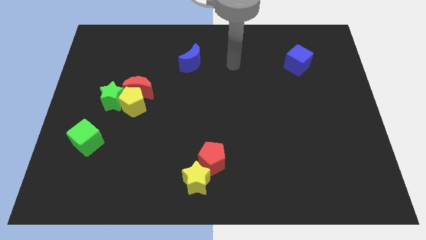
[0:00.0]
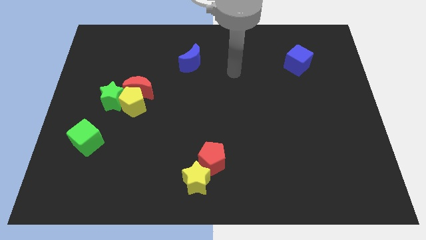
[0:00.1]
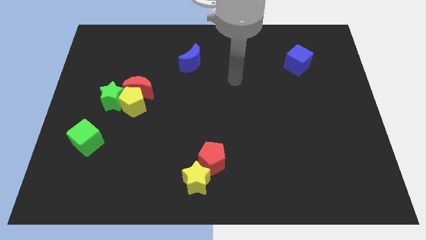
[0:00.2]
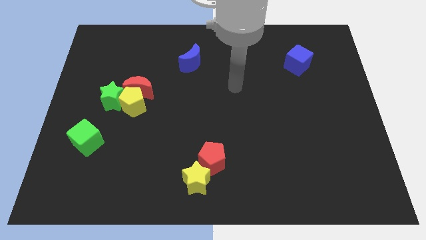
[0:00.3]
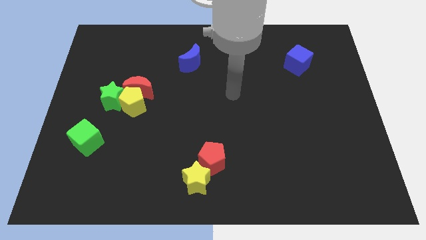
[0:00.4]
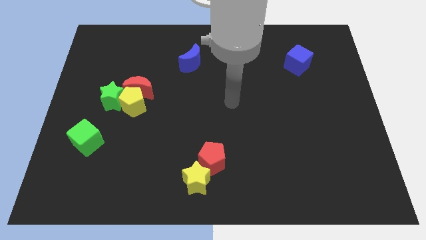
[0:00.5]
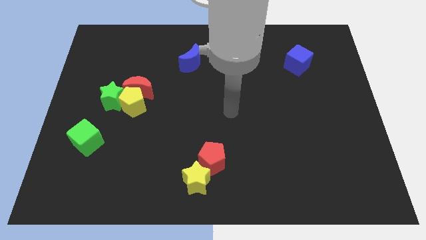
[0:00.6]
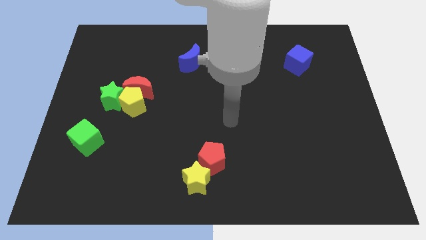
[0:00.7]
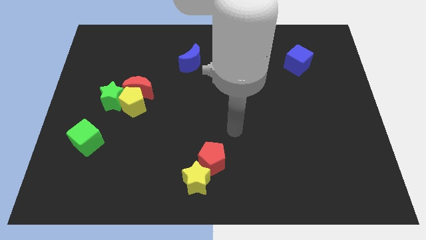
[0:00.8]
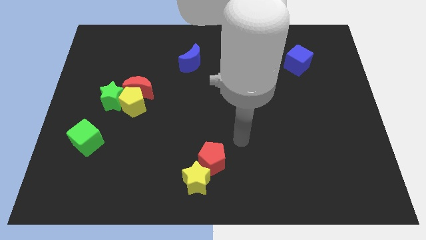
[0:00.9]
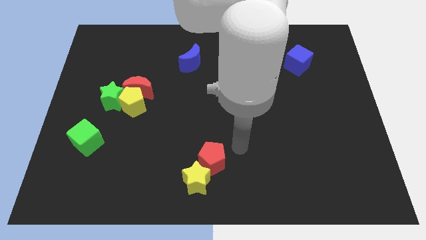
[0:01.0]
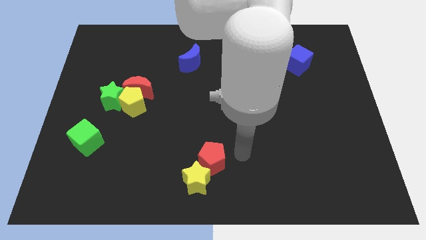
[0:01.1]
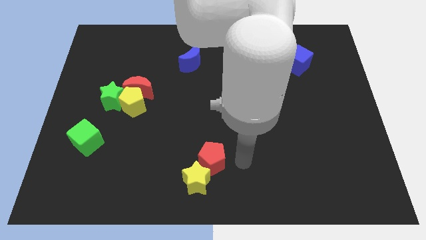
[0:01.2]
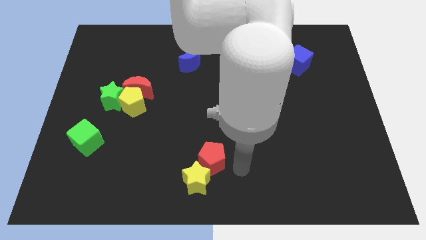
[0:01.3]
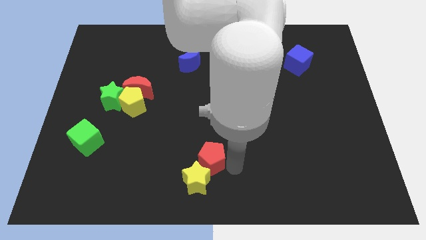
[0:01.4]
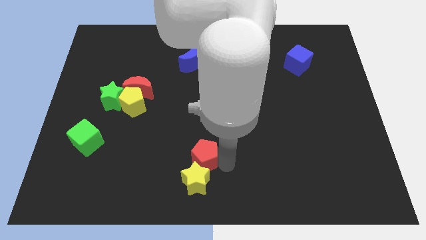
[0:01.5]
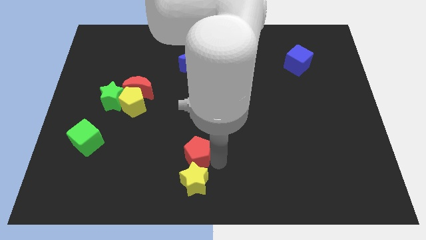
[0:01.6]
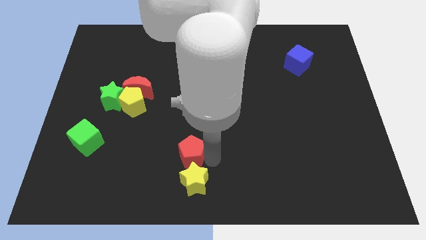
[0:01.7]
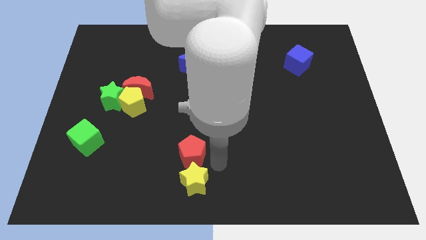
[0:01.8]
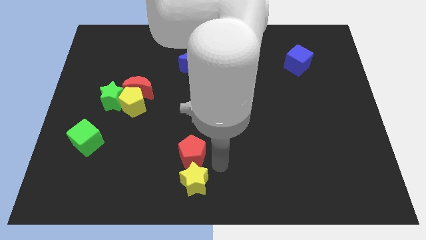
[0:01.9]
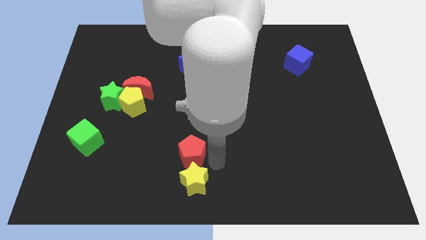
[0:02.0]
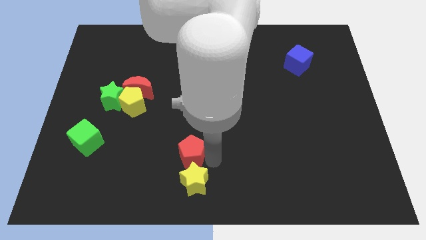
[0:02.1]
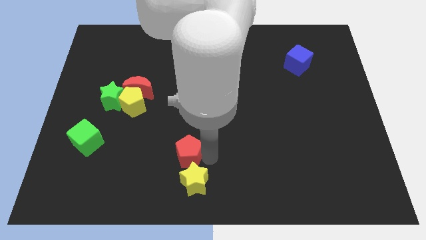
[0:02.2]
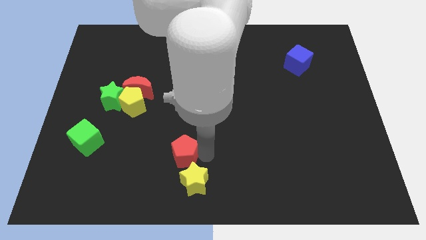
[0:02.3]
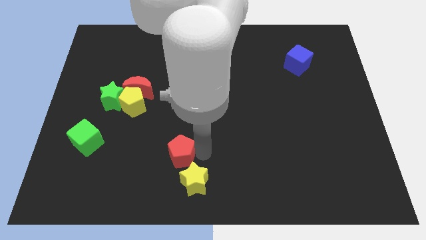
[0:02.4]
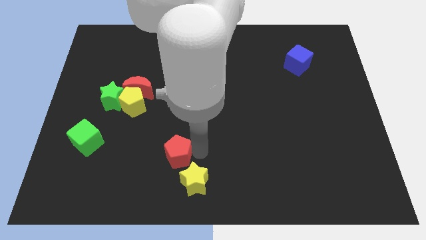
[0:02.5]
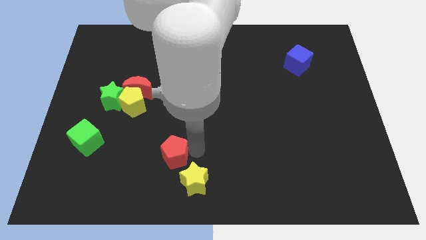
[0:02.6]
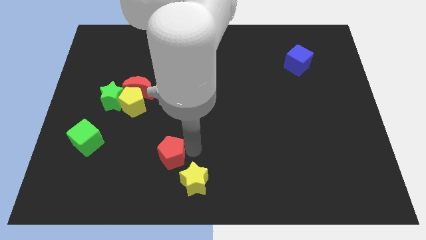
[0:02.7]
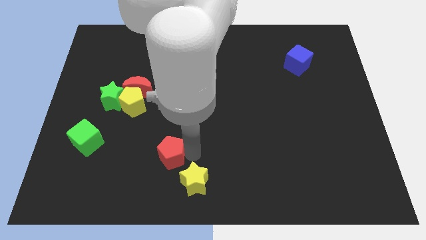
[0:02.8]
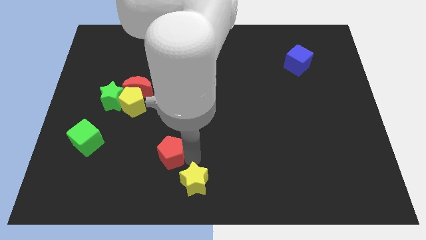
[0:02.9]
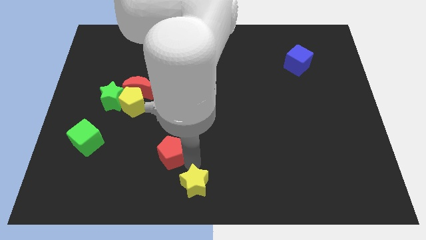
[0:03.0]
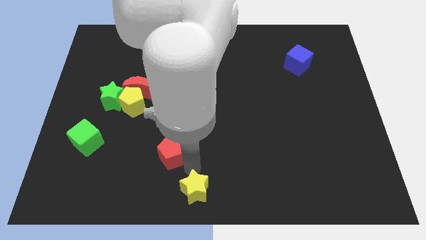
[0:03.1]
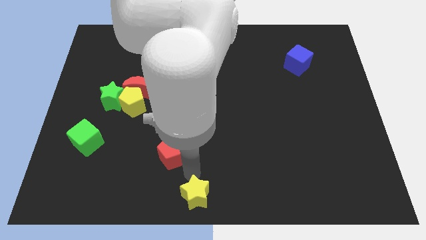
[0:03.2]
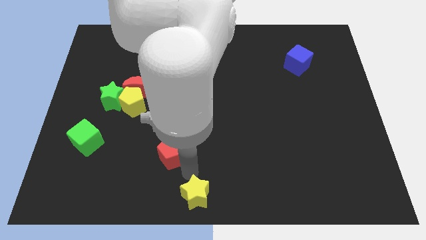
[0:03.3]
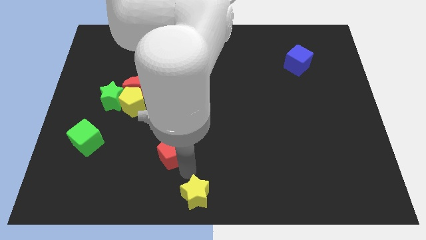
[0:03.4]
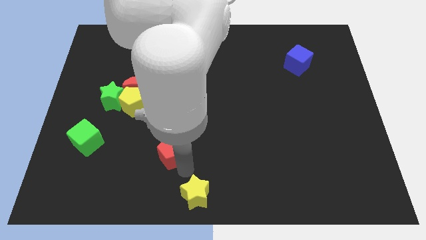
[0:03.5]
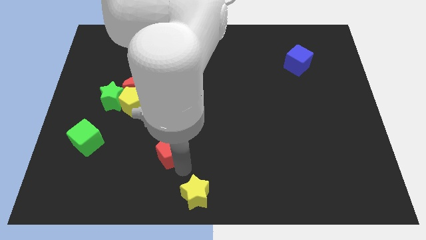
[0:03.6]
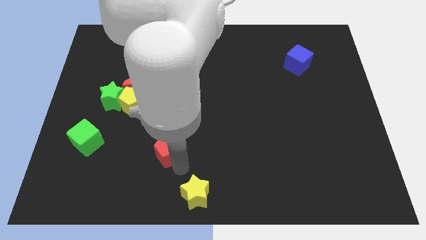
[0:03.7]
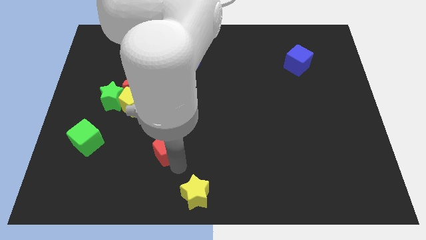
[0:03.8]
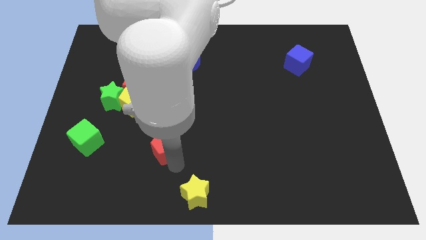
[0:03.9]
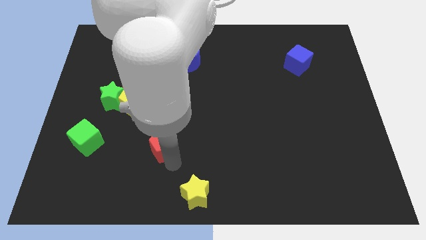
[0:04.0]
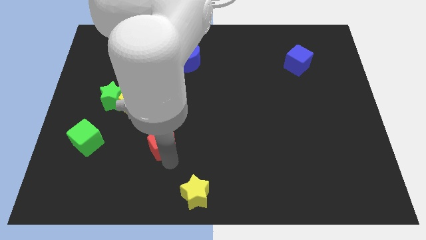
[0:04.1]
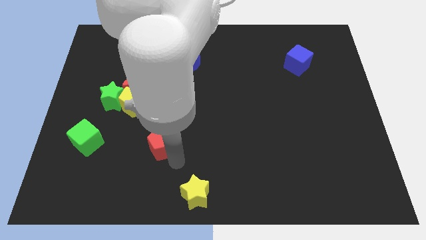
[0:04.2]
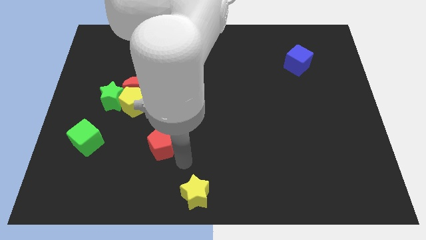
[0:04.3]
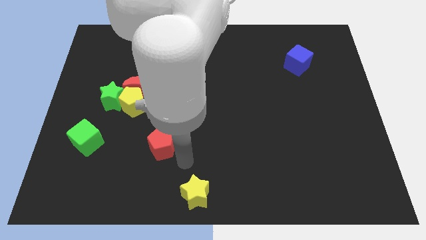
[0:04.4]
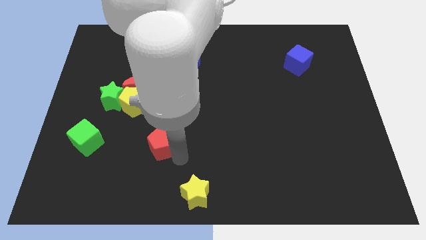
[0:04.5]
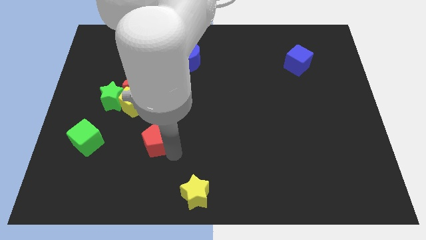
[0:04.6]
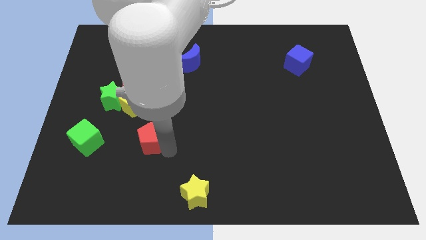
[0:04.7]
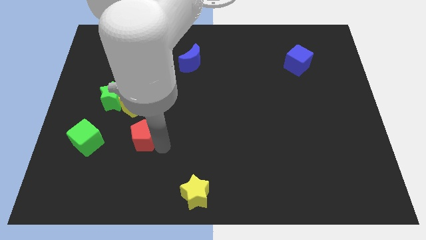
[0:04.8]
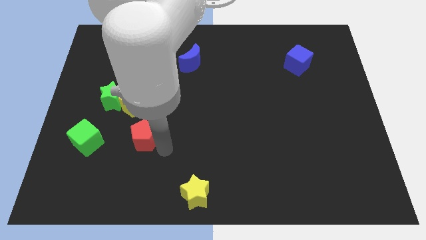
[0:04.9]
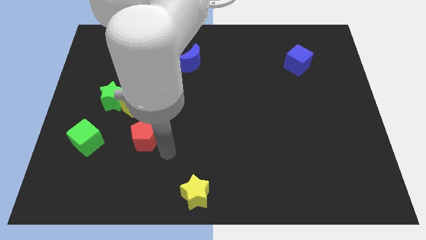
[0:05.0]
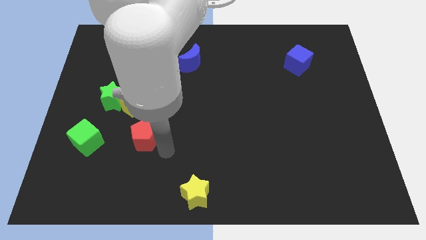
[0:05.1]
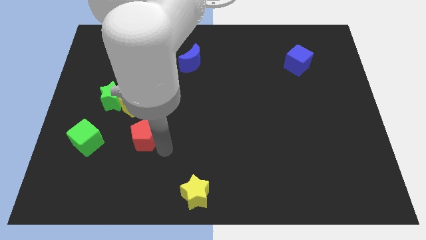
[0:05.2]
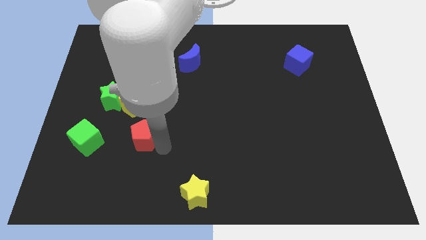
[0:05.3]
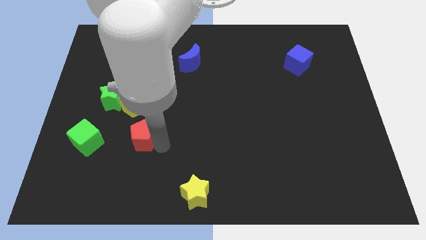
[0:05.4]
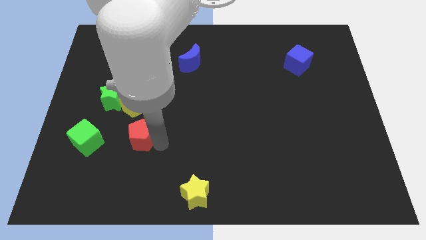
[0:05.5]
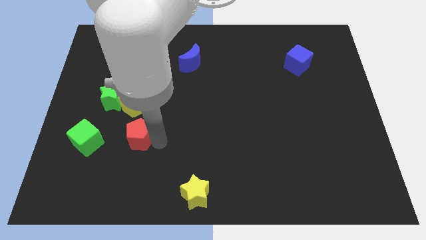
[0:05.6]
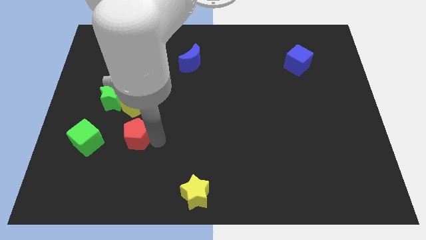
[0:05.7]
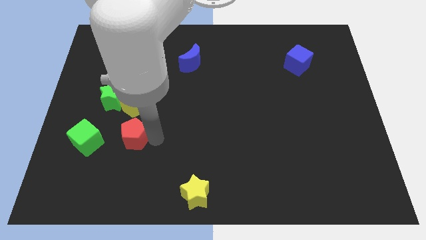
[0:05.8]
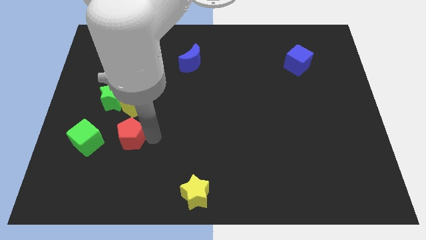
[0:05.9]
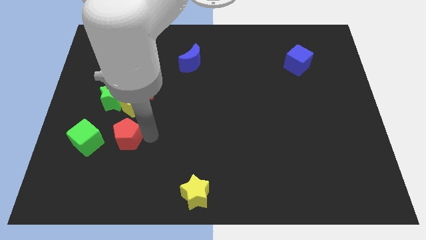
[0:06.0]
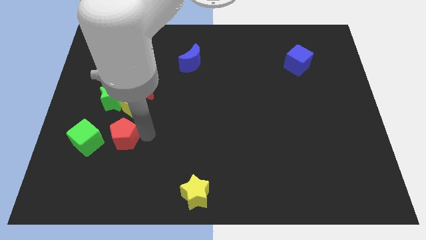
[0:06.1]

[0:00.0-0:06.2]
move the red pentagon diagonally up and to the right of the green cube

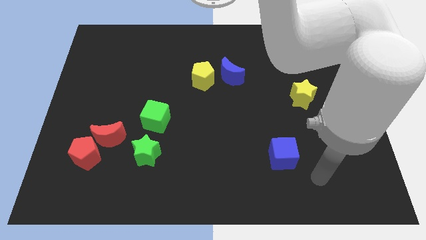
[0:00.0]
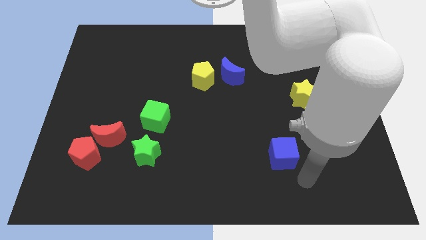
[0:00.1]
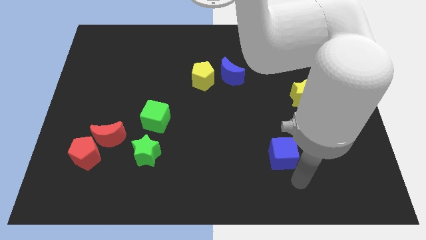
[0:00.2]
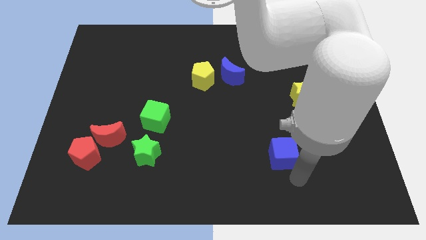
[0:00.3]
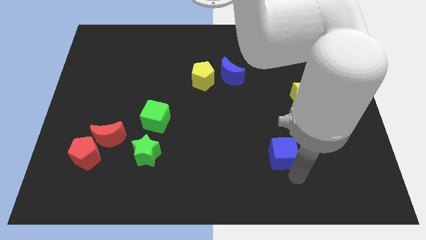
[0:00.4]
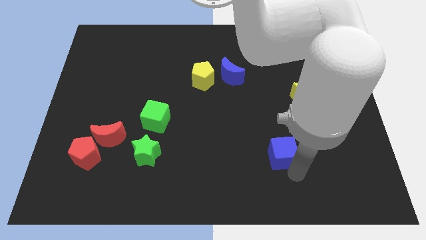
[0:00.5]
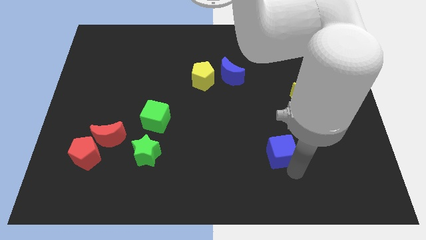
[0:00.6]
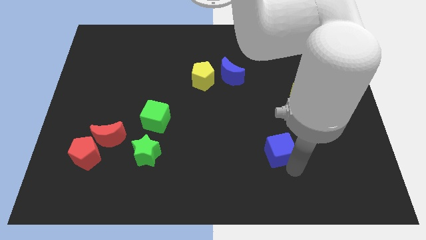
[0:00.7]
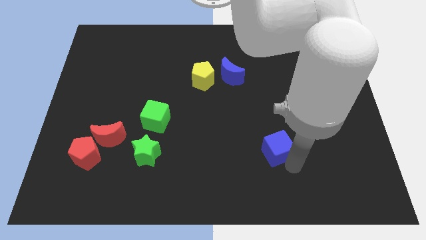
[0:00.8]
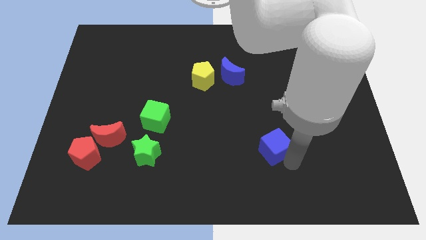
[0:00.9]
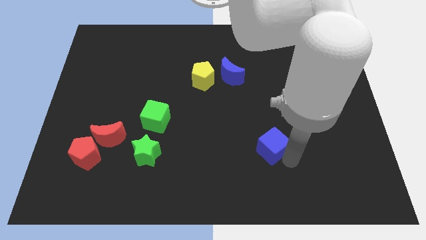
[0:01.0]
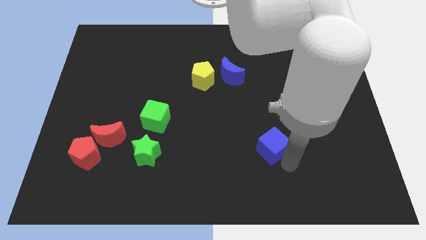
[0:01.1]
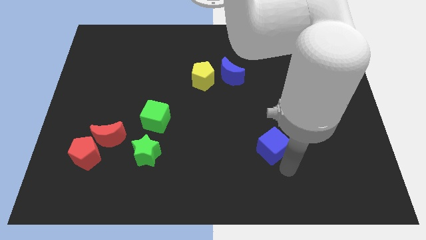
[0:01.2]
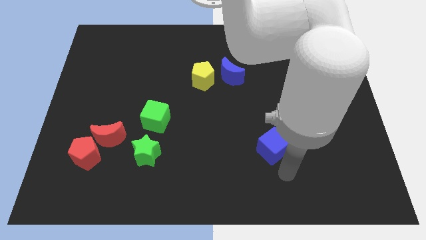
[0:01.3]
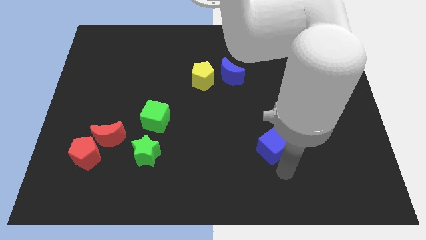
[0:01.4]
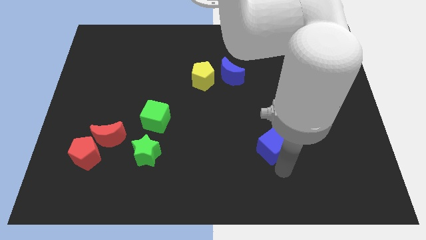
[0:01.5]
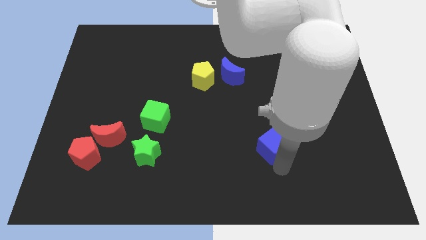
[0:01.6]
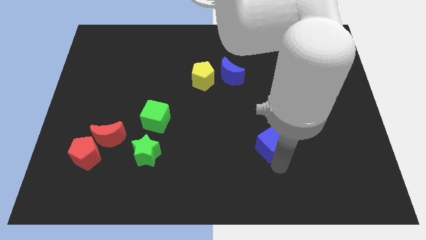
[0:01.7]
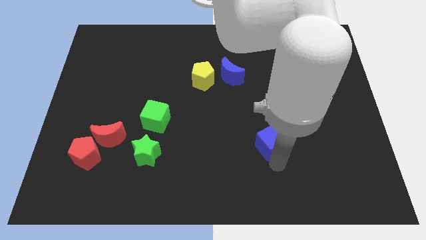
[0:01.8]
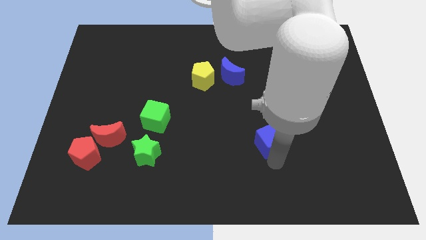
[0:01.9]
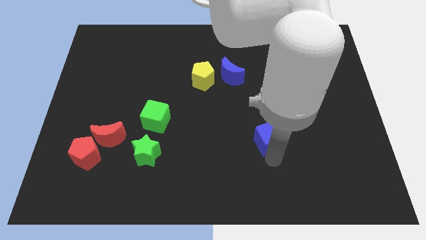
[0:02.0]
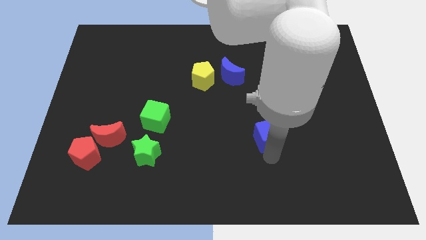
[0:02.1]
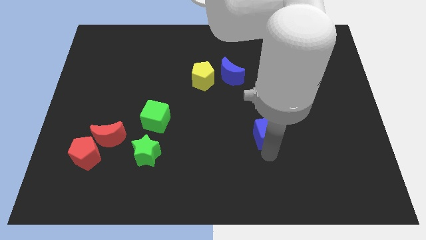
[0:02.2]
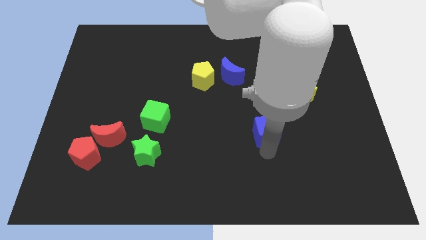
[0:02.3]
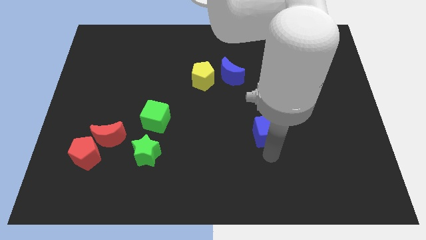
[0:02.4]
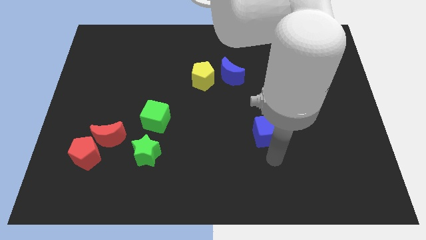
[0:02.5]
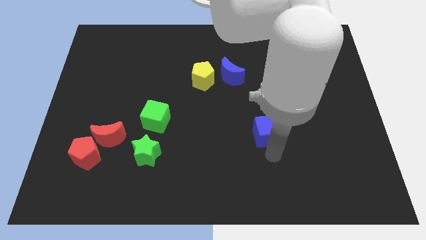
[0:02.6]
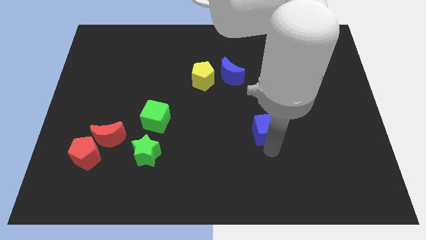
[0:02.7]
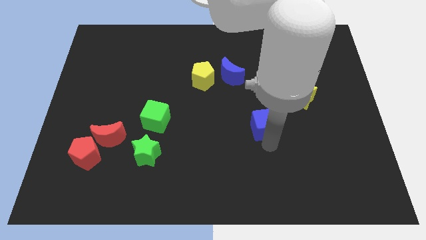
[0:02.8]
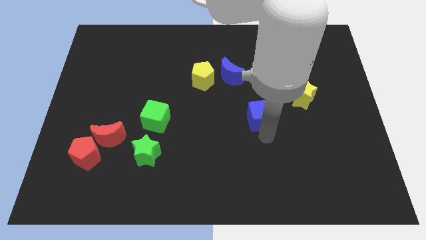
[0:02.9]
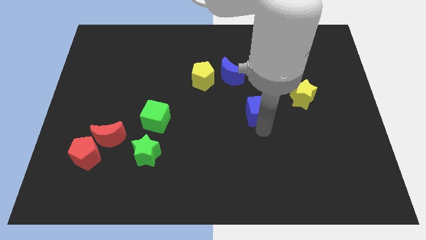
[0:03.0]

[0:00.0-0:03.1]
put the blue cube to the left of the yellow star
